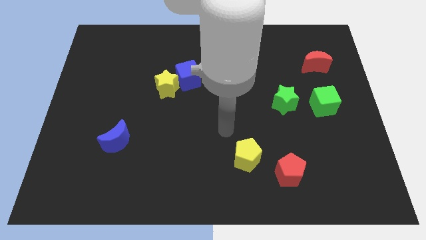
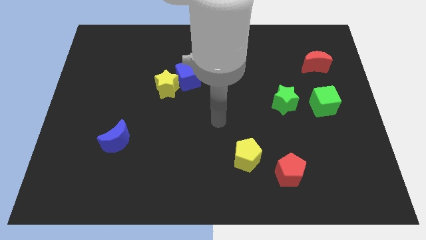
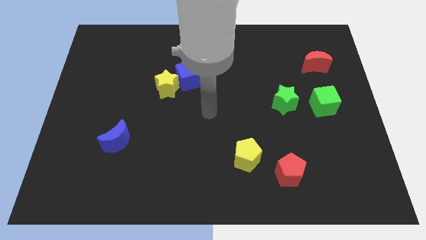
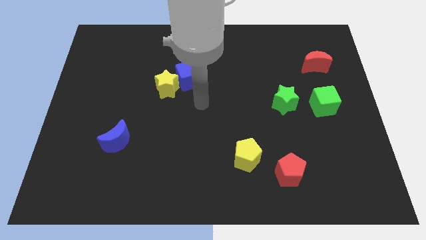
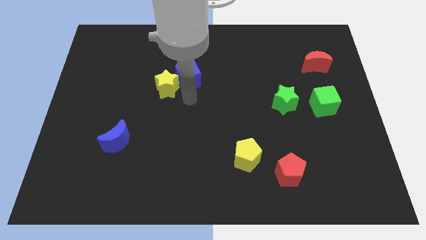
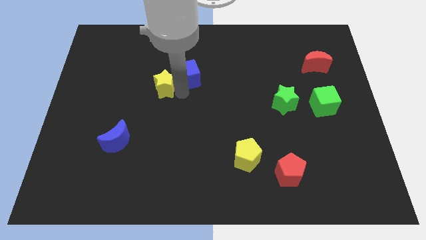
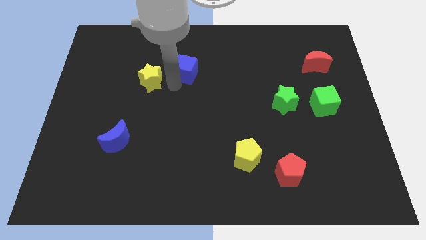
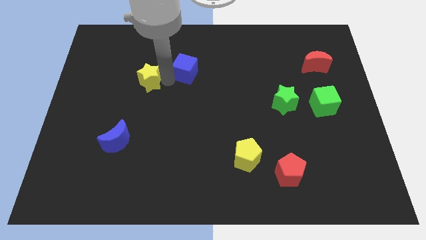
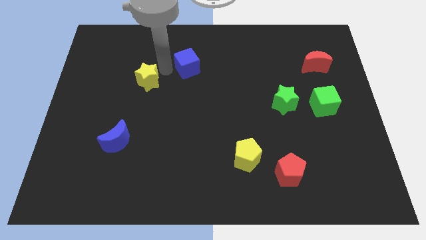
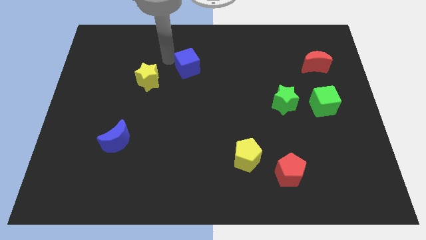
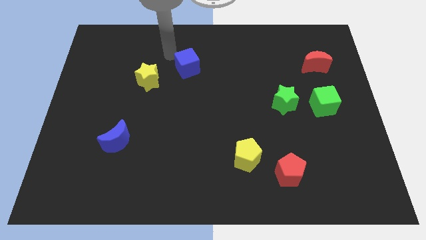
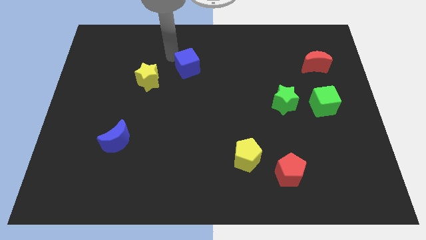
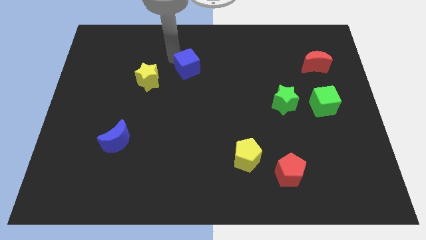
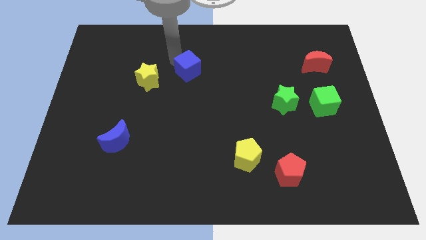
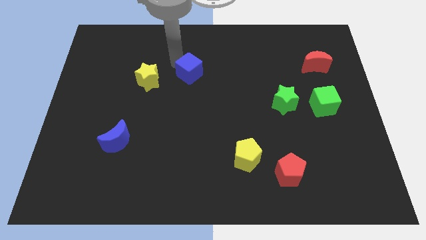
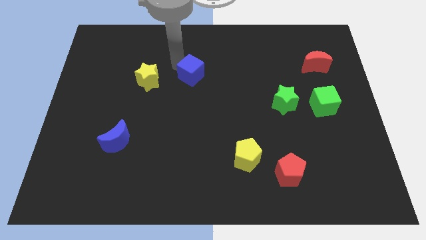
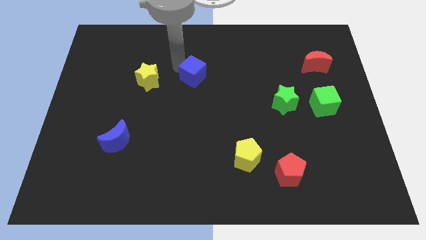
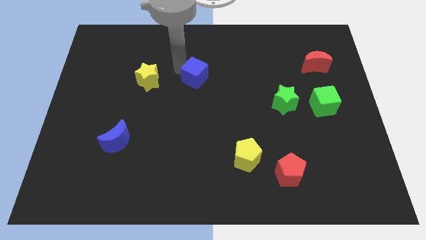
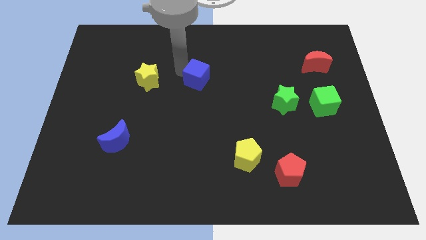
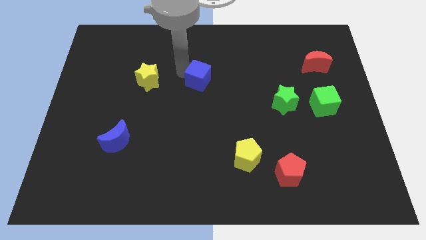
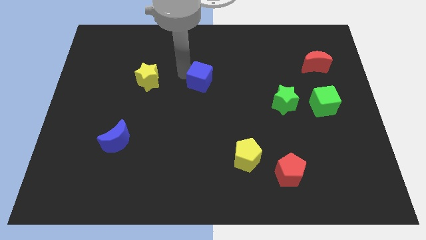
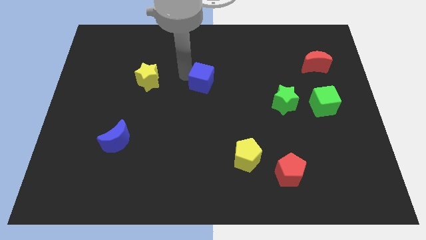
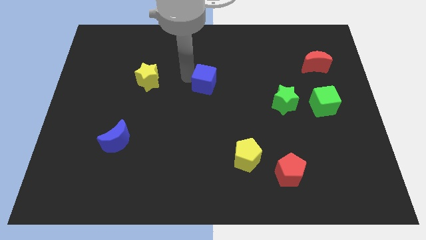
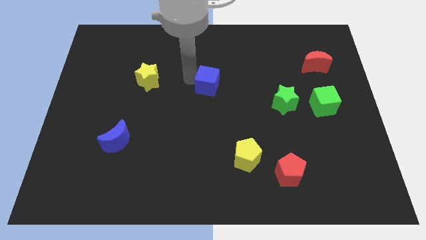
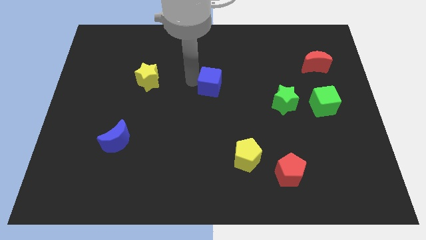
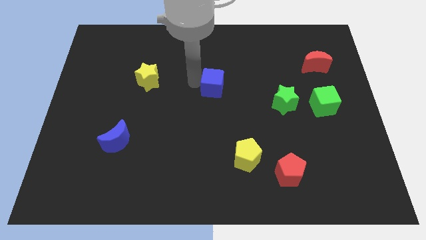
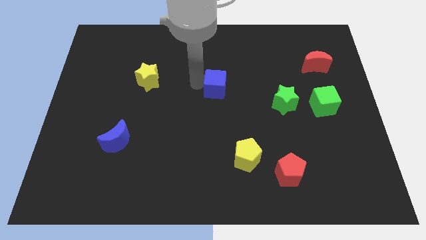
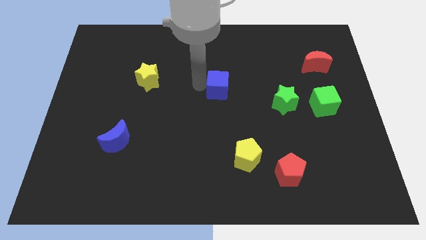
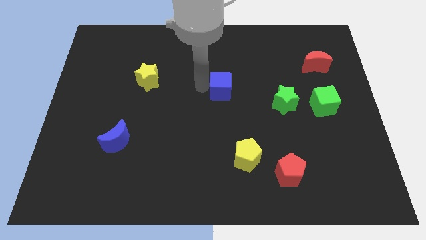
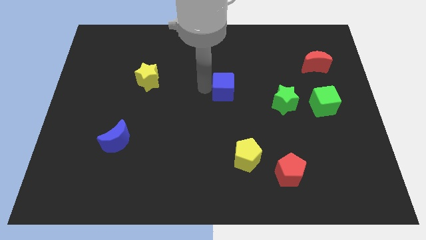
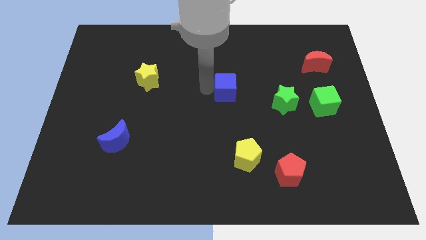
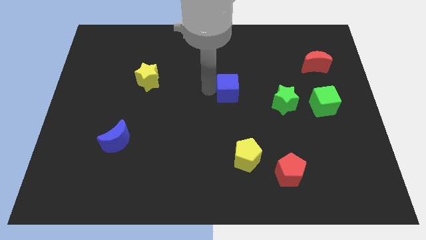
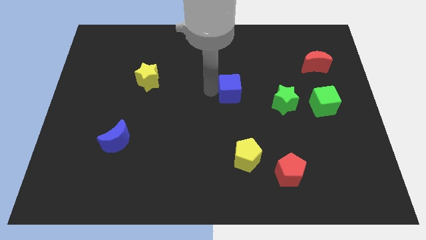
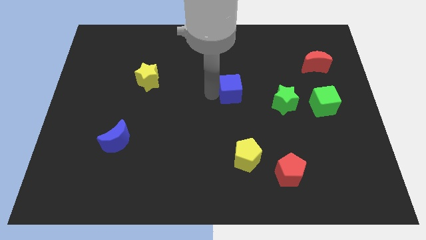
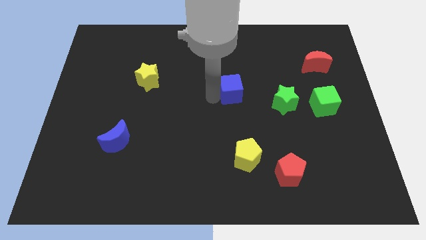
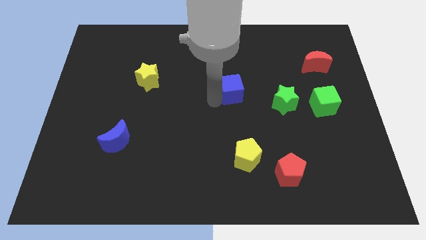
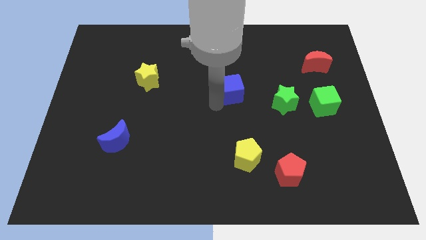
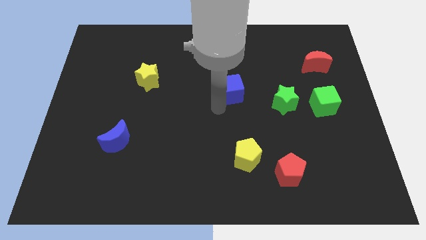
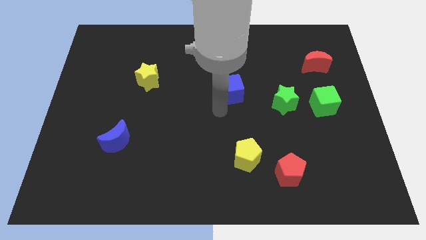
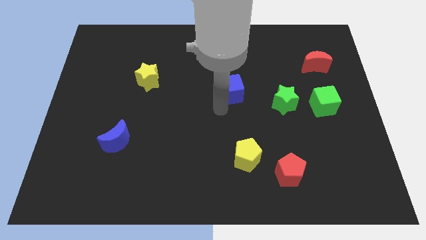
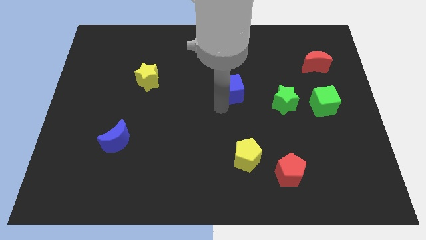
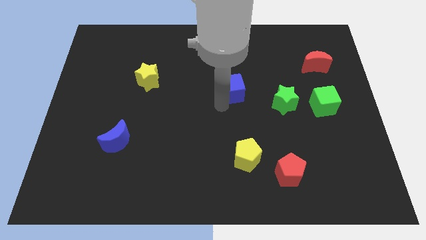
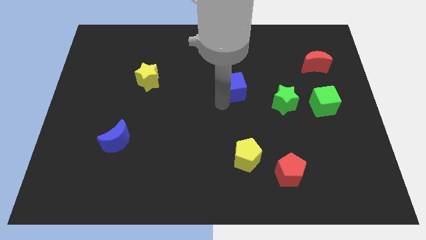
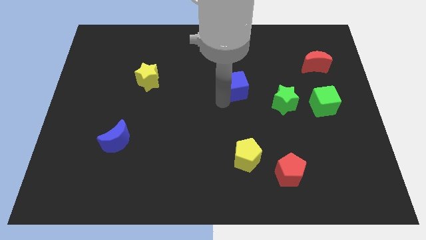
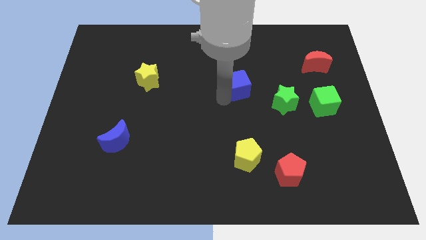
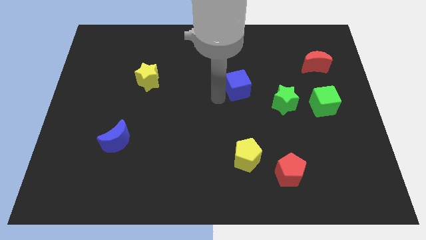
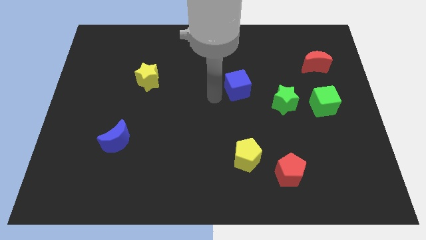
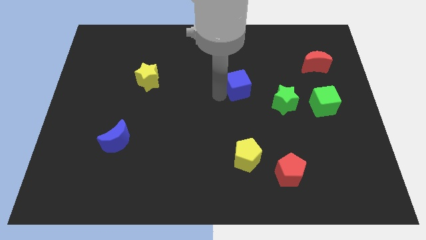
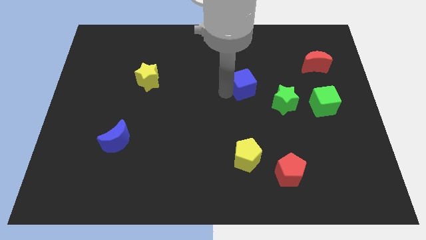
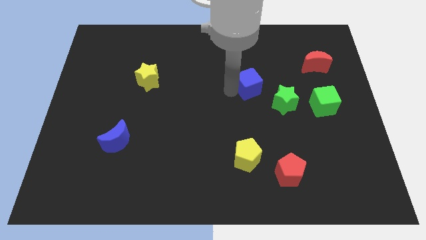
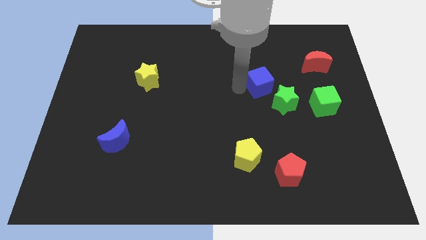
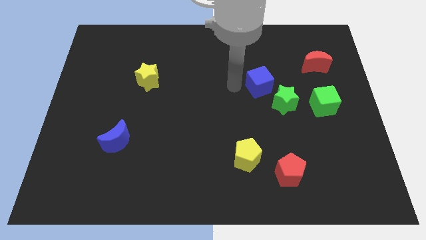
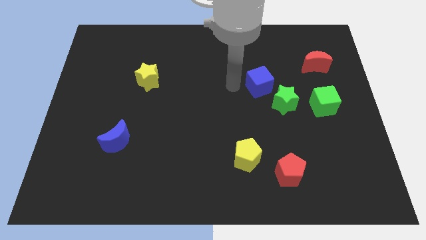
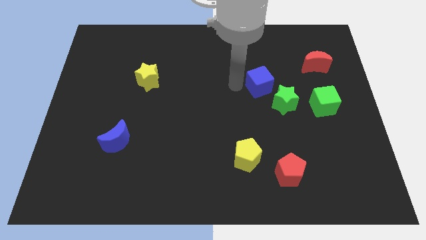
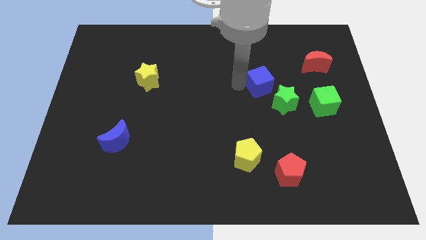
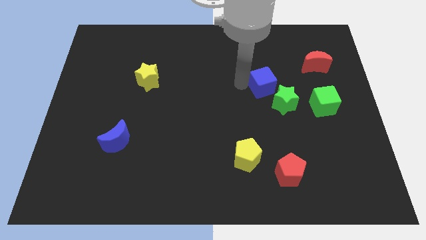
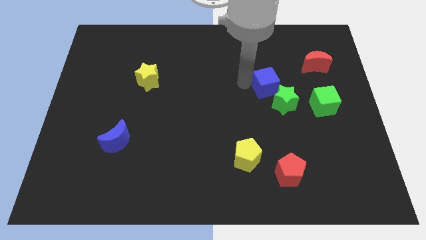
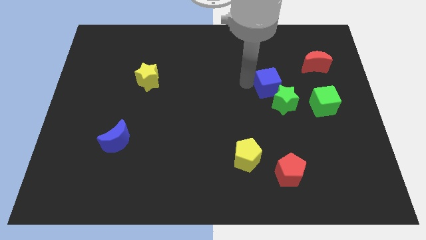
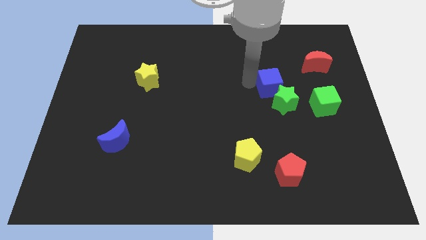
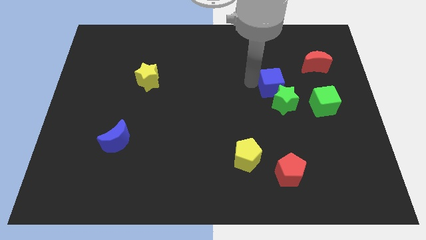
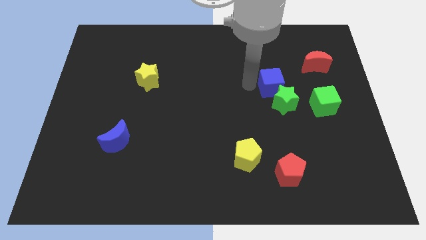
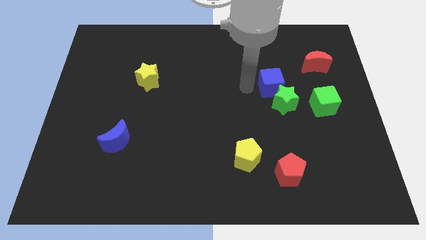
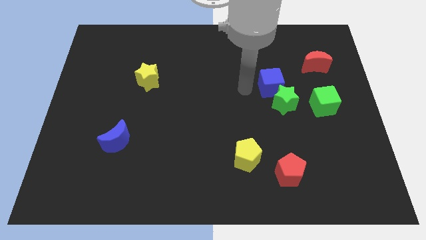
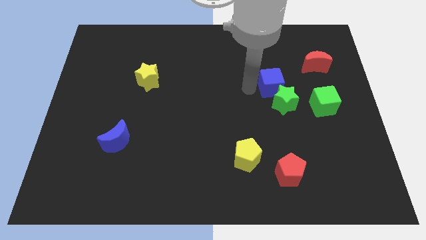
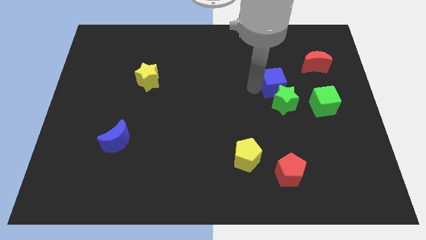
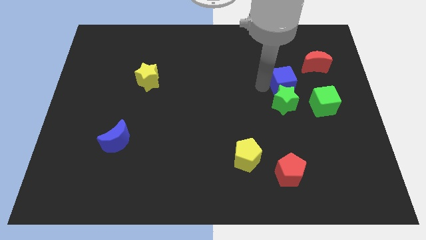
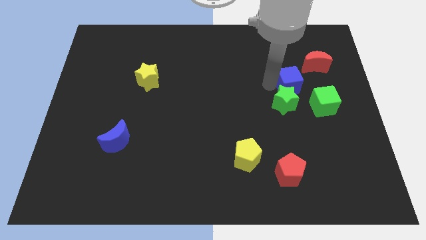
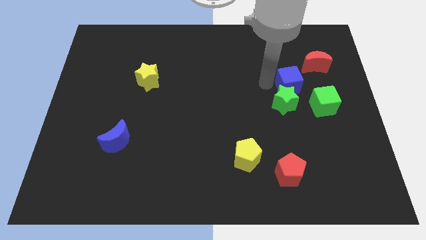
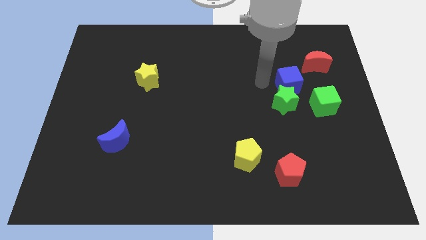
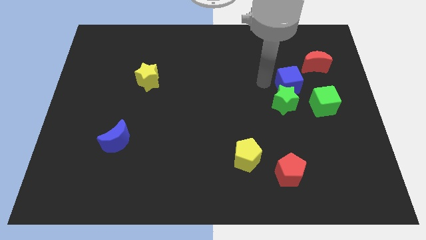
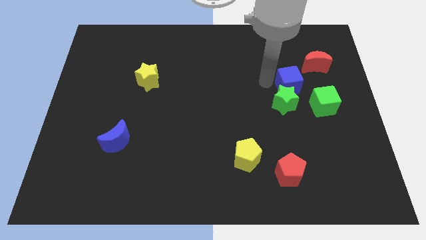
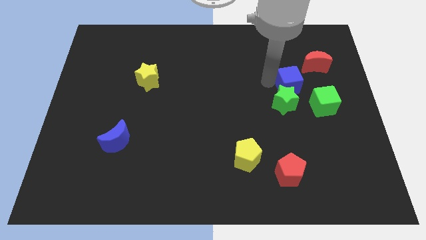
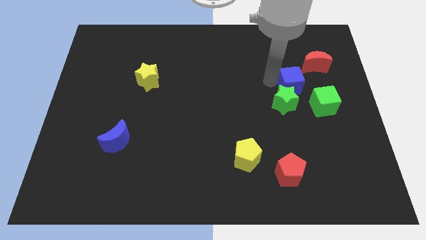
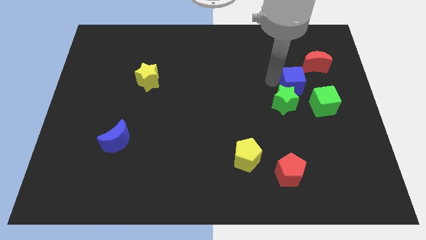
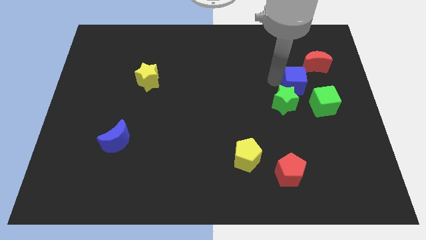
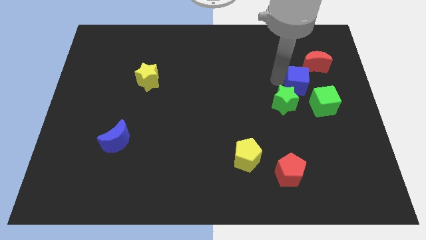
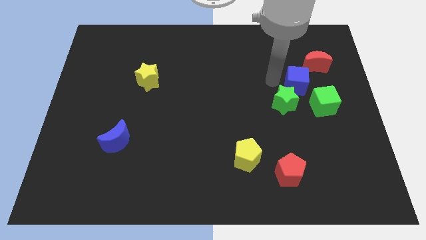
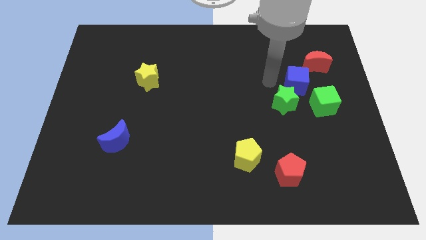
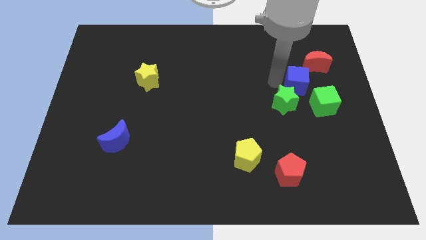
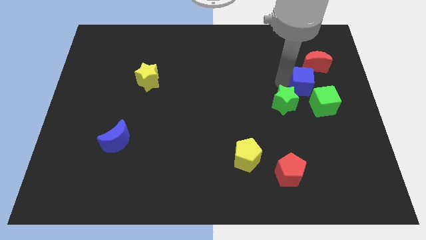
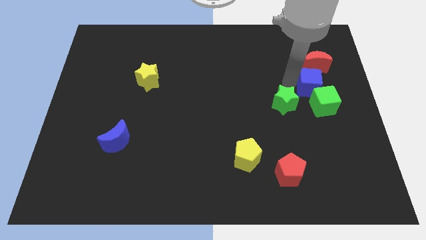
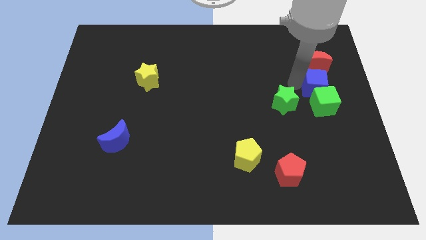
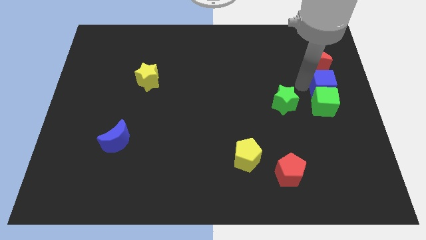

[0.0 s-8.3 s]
slide the blue cube to the right side

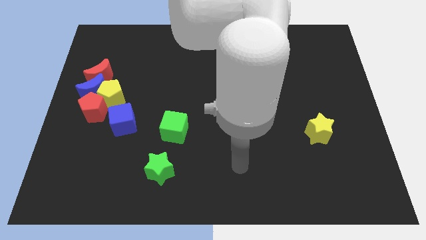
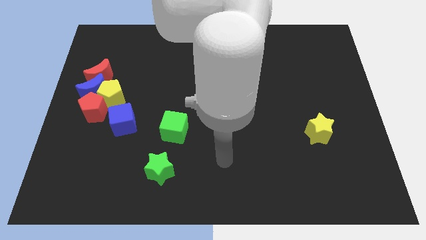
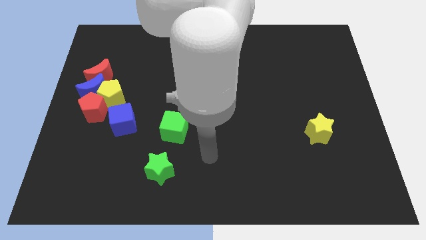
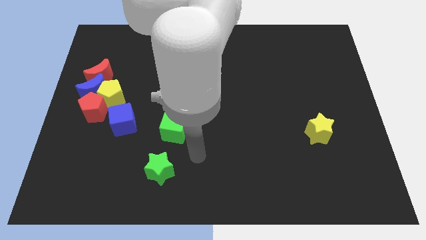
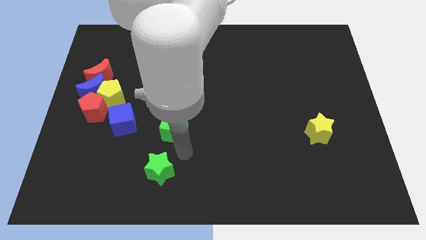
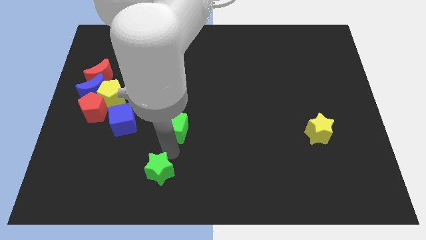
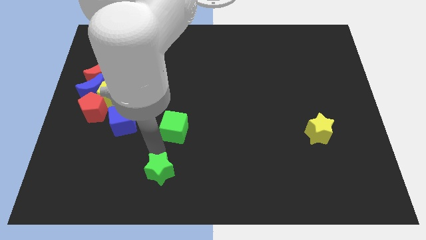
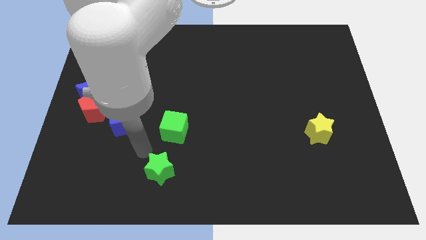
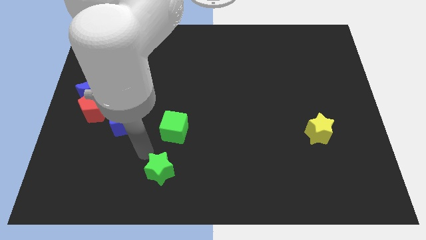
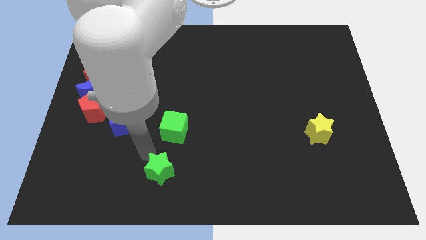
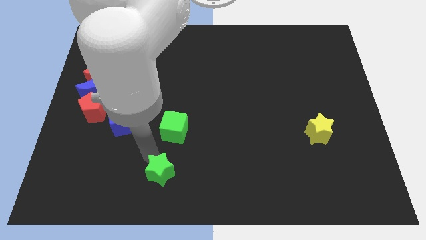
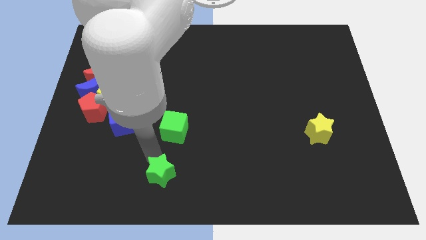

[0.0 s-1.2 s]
push the green star to the bottom
